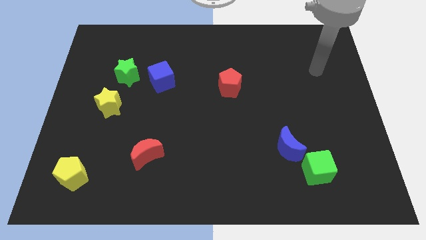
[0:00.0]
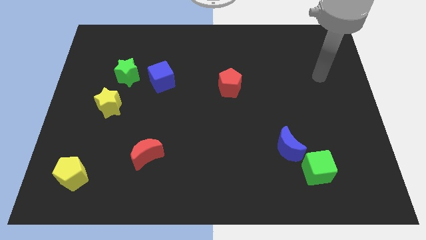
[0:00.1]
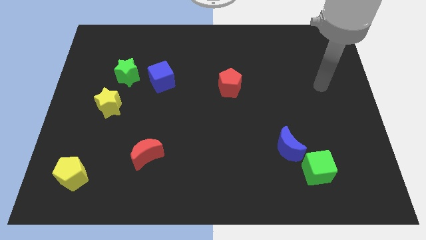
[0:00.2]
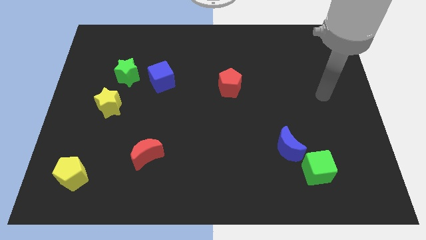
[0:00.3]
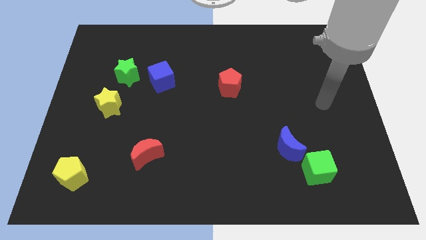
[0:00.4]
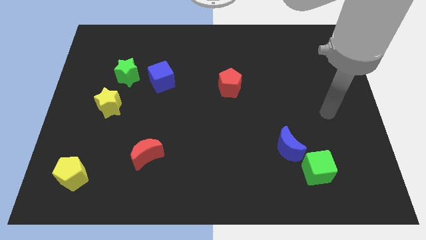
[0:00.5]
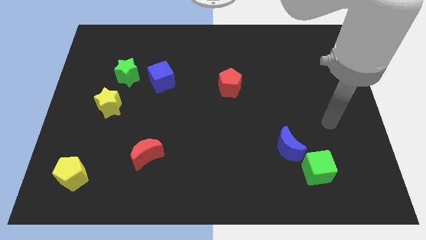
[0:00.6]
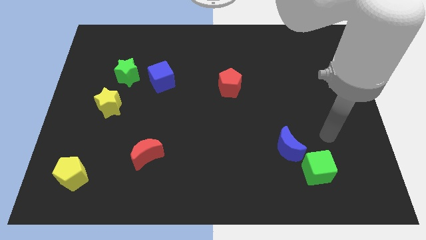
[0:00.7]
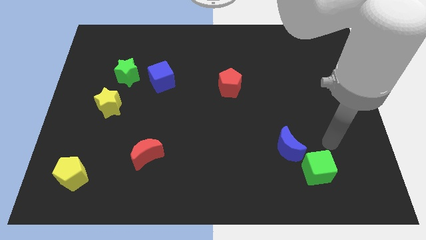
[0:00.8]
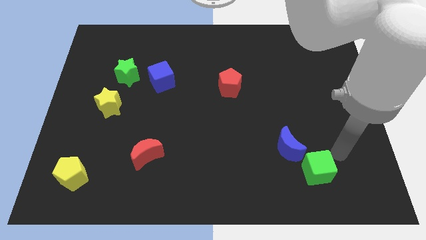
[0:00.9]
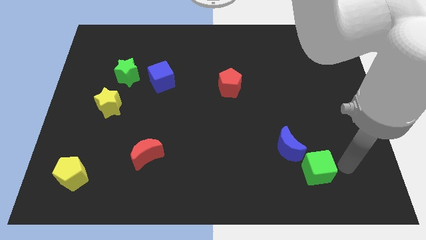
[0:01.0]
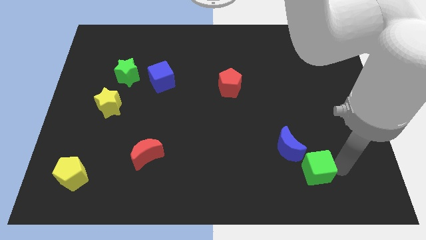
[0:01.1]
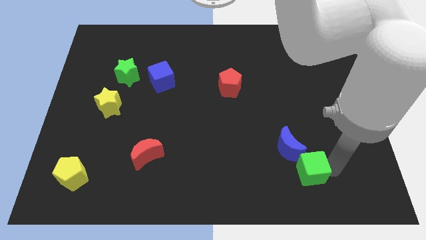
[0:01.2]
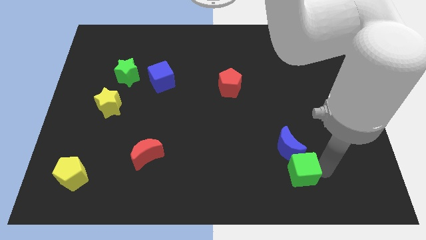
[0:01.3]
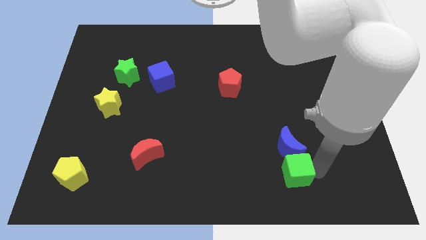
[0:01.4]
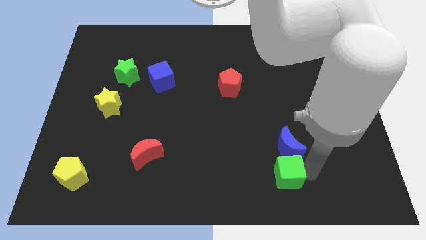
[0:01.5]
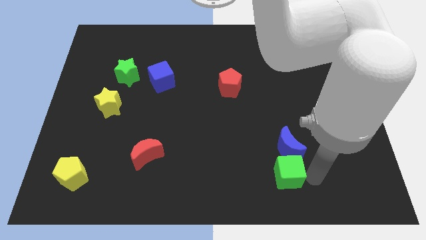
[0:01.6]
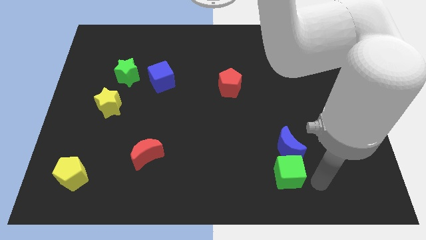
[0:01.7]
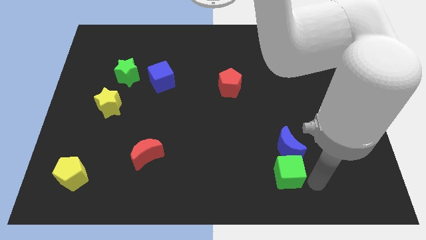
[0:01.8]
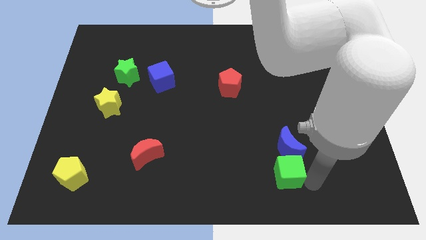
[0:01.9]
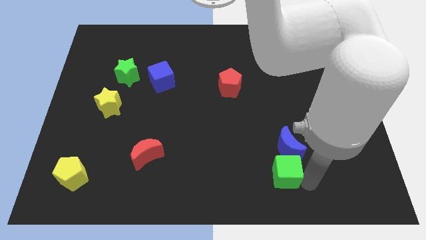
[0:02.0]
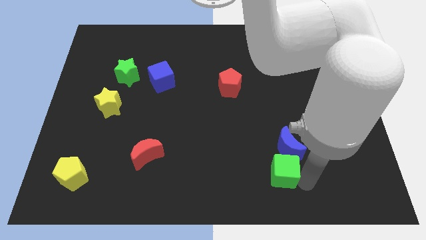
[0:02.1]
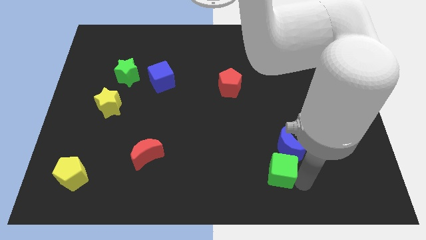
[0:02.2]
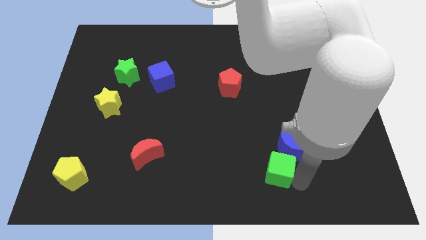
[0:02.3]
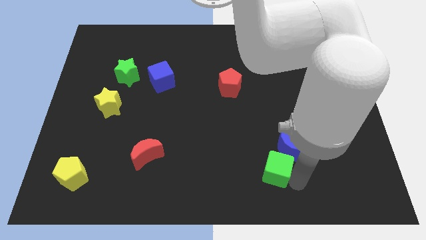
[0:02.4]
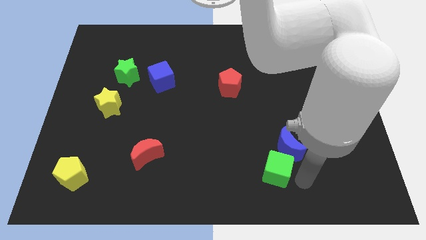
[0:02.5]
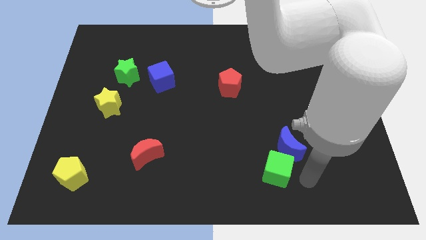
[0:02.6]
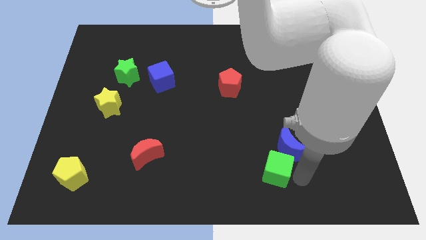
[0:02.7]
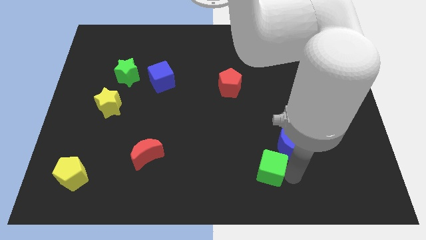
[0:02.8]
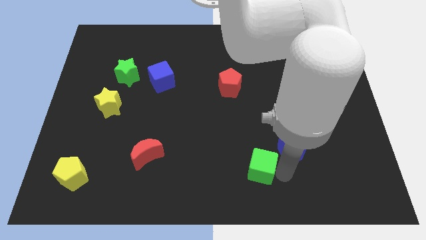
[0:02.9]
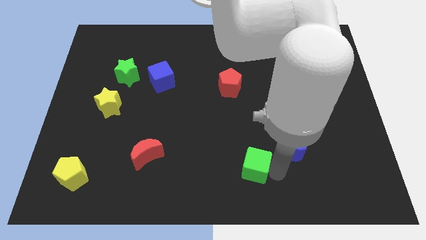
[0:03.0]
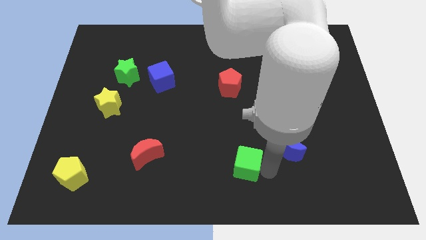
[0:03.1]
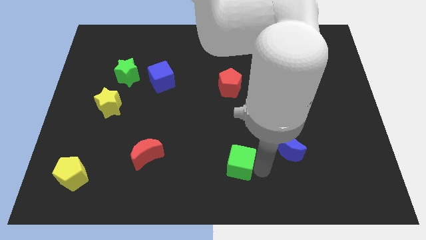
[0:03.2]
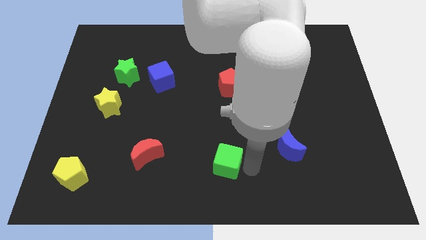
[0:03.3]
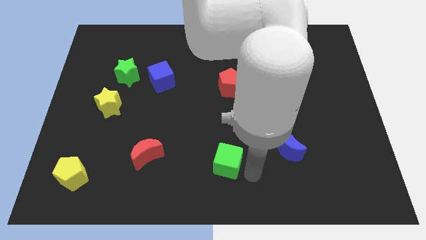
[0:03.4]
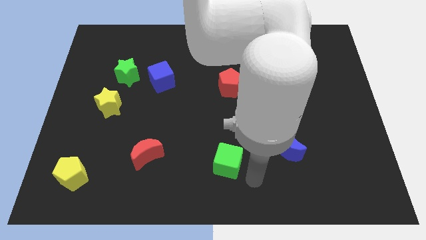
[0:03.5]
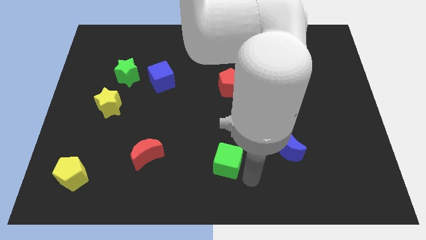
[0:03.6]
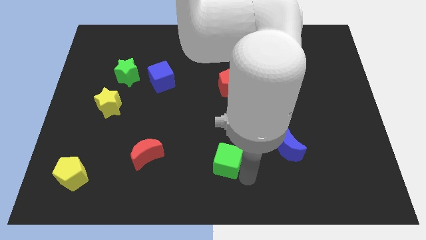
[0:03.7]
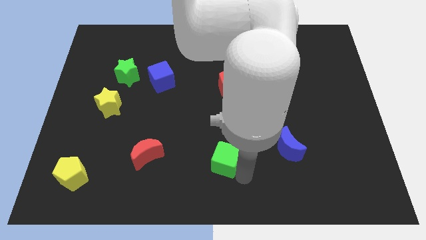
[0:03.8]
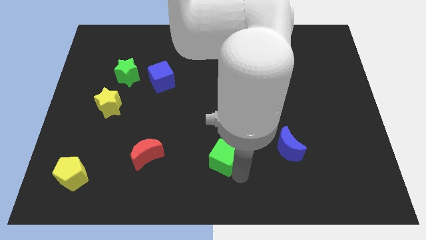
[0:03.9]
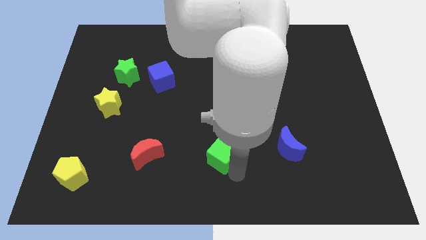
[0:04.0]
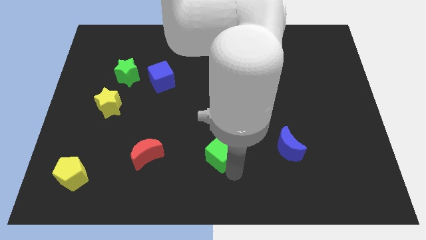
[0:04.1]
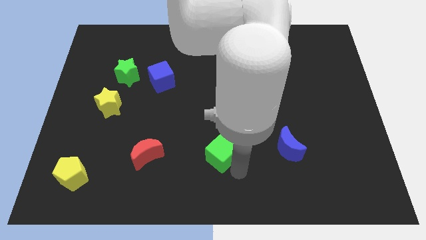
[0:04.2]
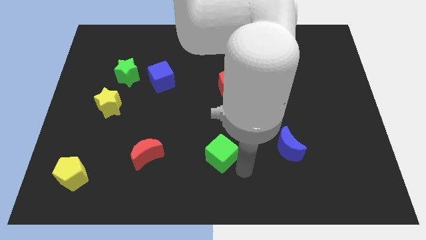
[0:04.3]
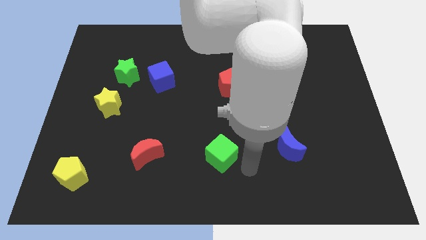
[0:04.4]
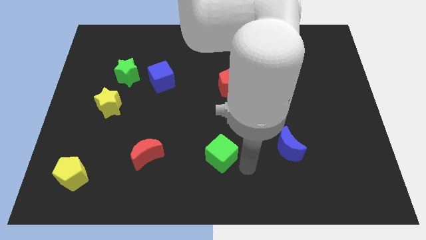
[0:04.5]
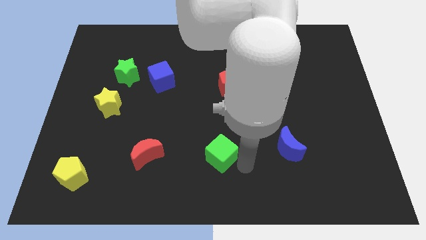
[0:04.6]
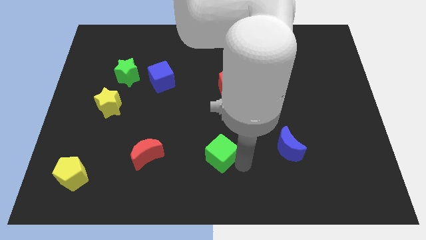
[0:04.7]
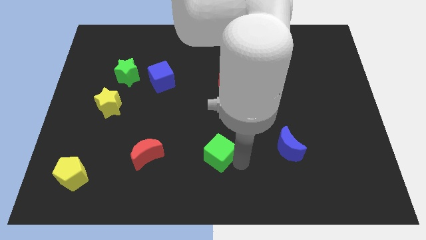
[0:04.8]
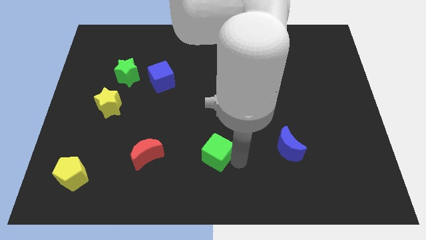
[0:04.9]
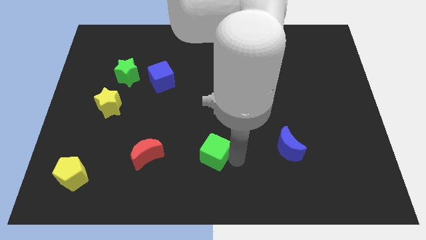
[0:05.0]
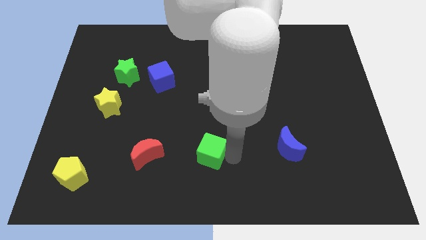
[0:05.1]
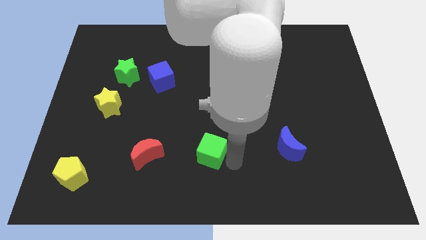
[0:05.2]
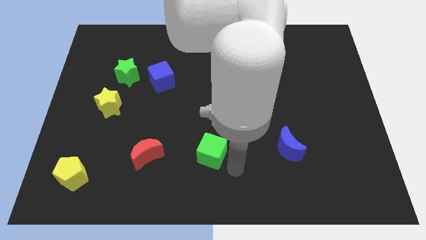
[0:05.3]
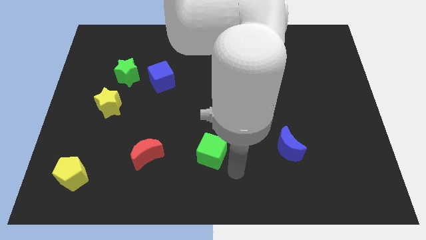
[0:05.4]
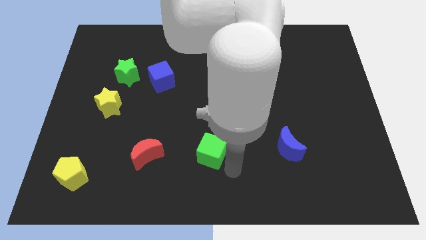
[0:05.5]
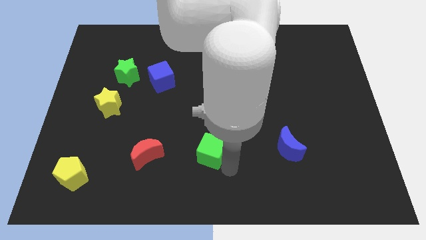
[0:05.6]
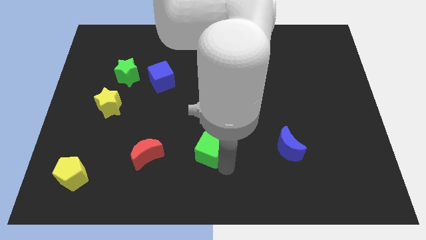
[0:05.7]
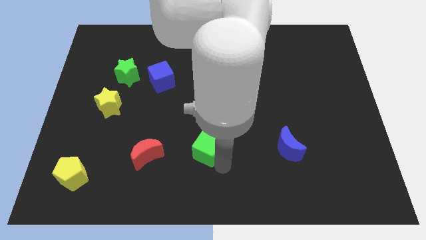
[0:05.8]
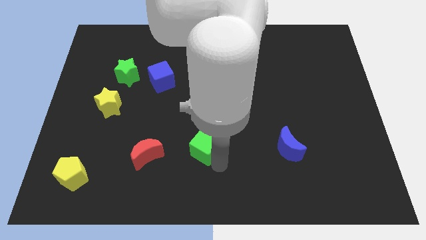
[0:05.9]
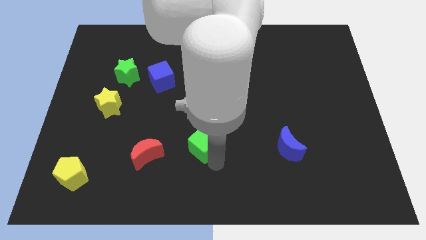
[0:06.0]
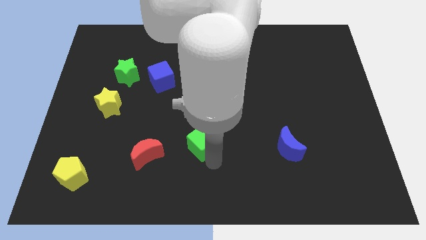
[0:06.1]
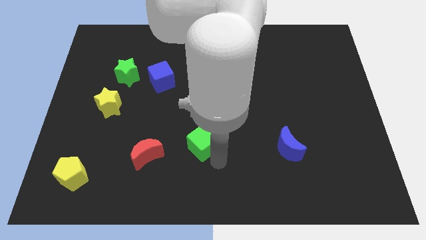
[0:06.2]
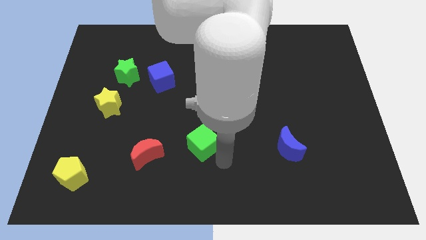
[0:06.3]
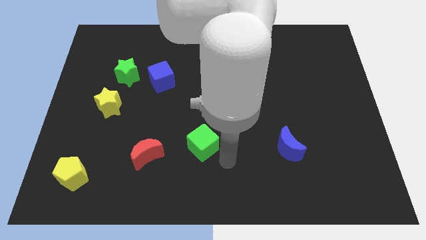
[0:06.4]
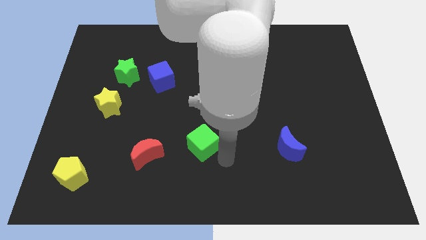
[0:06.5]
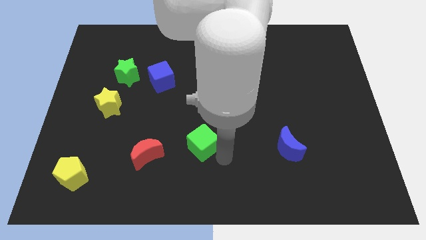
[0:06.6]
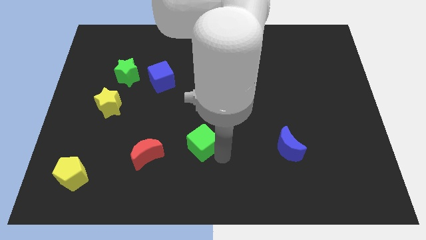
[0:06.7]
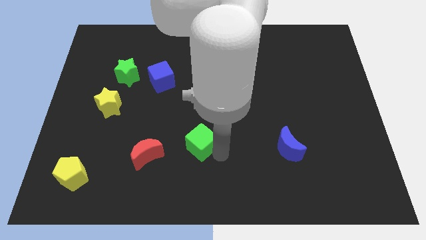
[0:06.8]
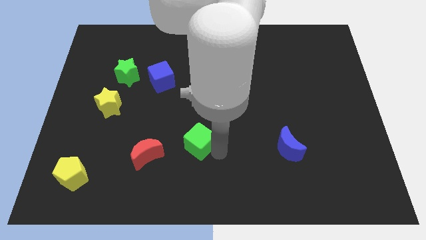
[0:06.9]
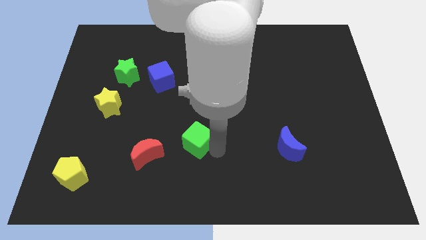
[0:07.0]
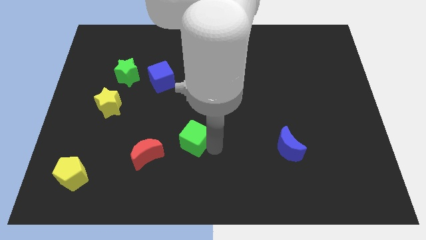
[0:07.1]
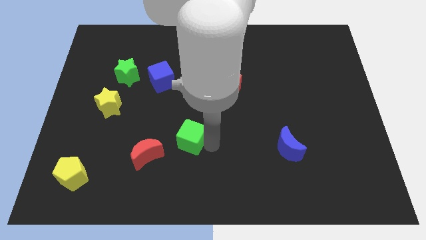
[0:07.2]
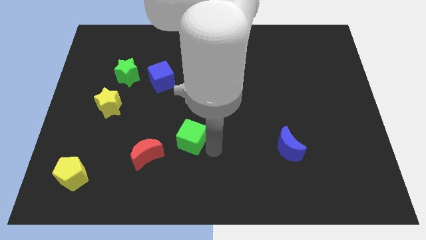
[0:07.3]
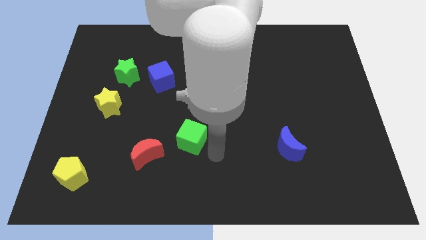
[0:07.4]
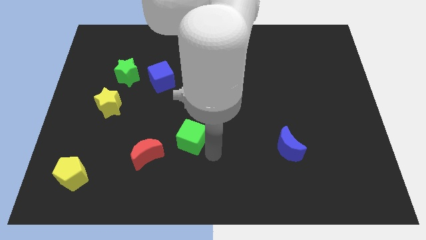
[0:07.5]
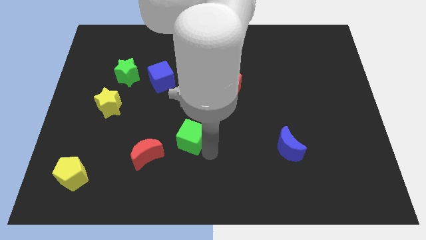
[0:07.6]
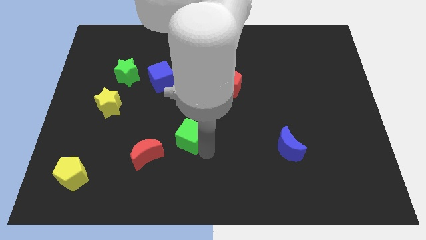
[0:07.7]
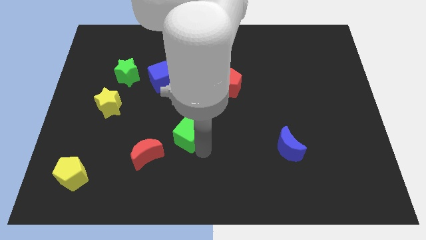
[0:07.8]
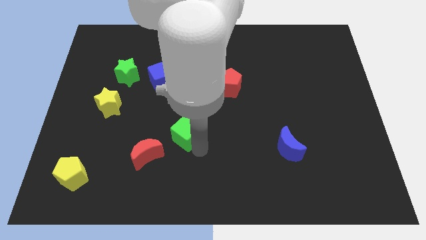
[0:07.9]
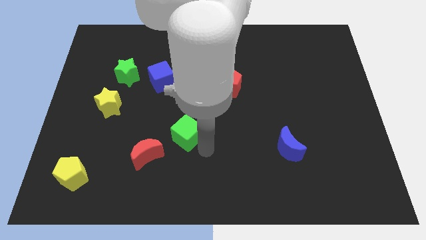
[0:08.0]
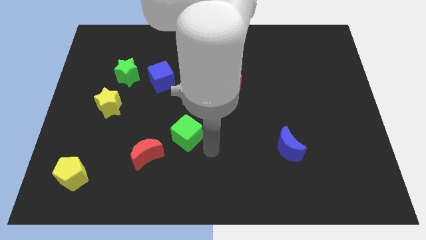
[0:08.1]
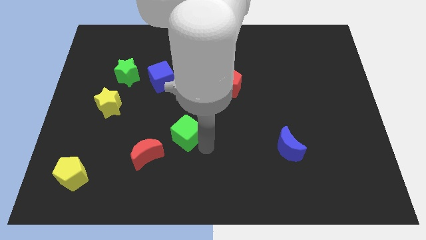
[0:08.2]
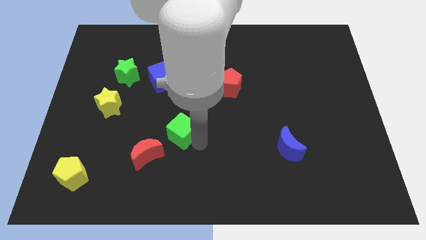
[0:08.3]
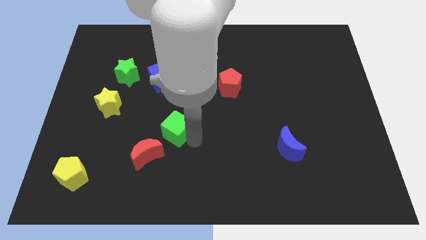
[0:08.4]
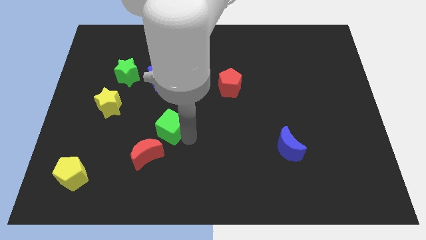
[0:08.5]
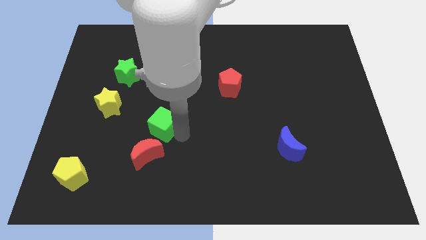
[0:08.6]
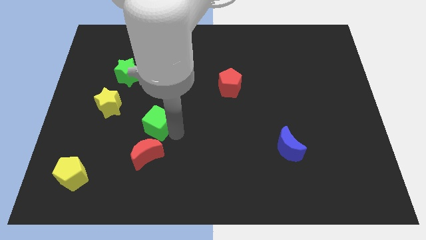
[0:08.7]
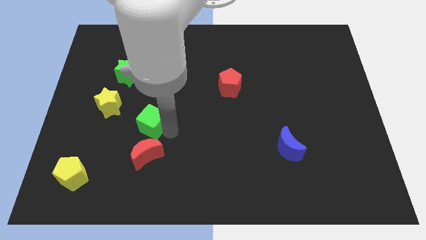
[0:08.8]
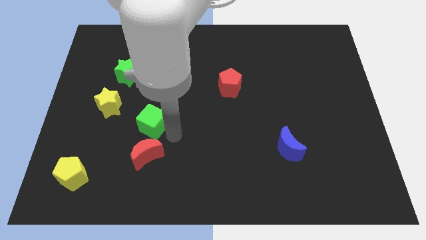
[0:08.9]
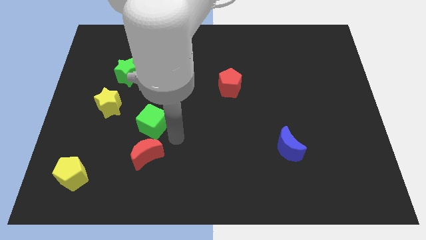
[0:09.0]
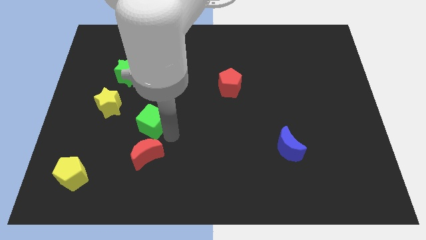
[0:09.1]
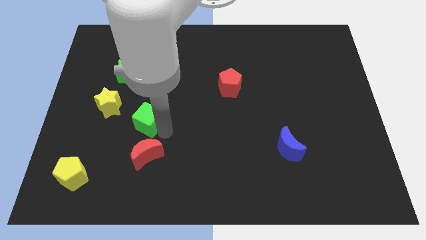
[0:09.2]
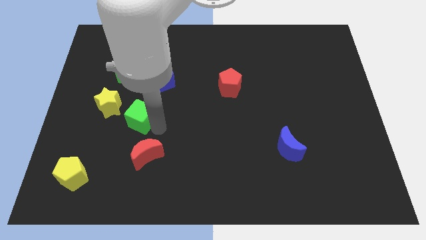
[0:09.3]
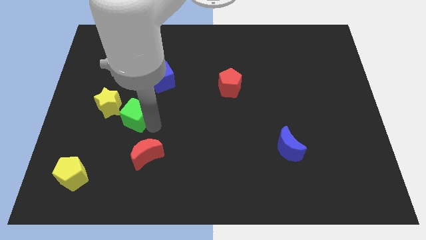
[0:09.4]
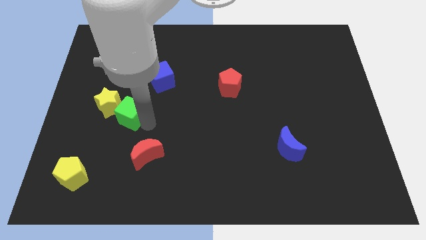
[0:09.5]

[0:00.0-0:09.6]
push the green cube towards the yellow star
